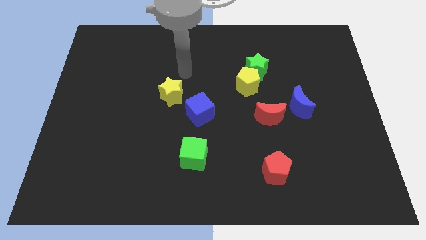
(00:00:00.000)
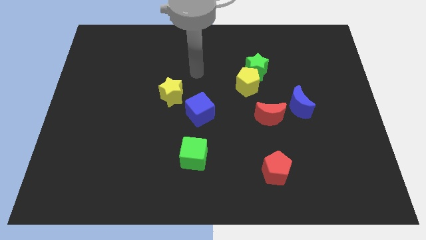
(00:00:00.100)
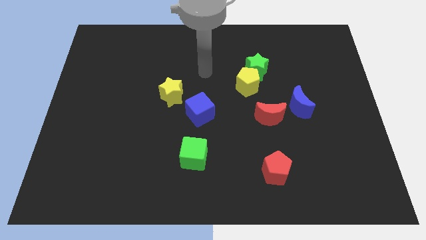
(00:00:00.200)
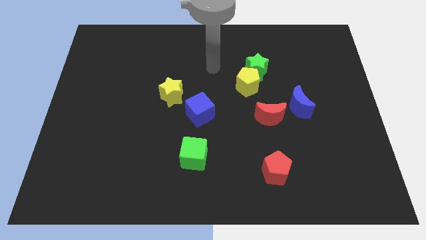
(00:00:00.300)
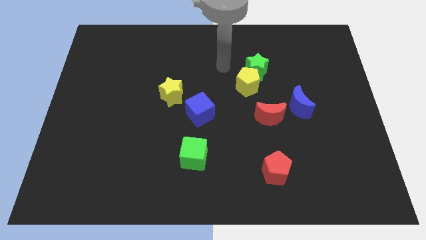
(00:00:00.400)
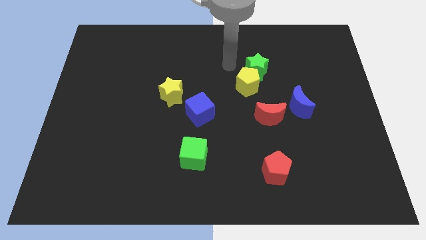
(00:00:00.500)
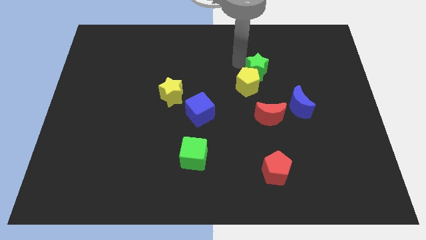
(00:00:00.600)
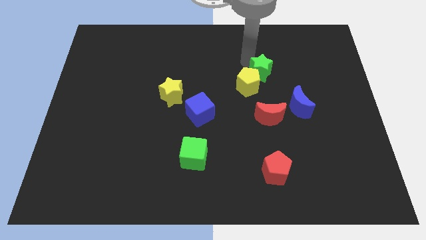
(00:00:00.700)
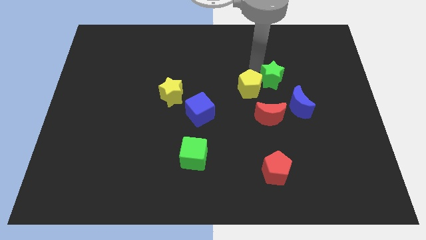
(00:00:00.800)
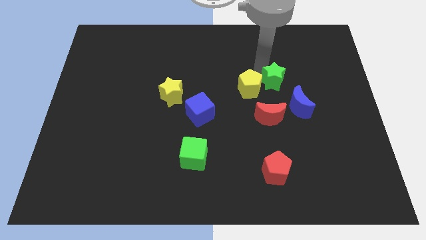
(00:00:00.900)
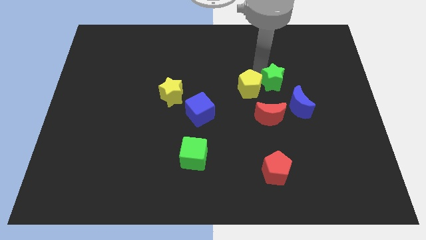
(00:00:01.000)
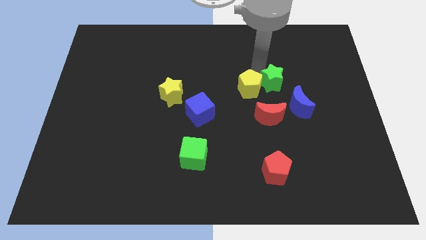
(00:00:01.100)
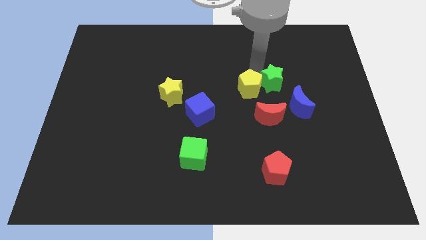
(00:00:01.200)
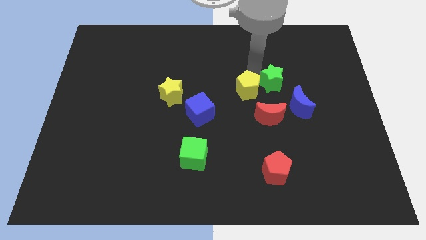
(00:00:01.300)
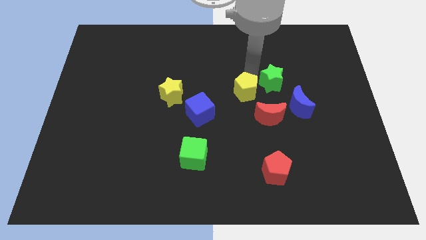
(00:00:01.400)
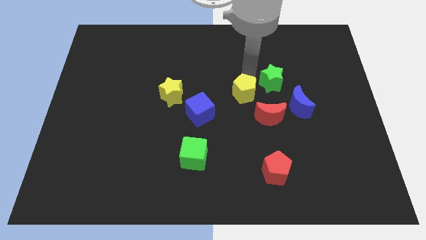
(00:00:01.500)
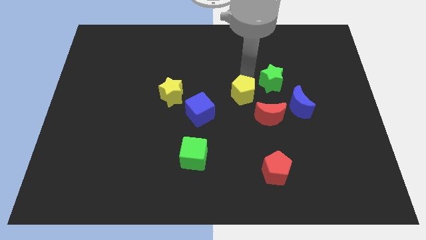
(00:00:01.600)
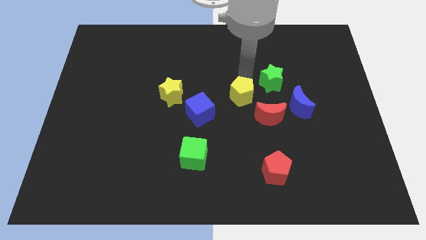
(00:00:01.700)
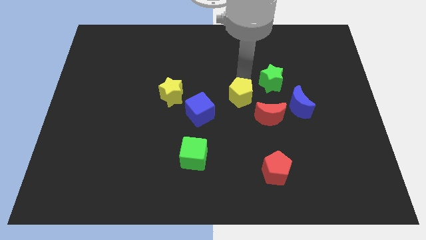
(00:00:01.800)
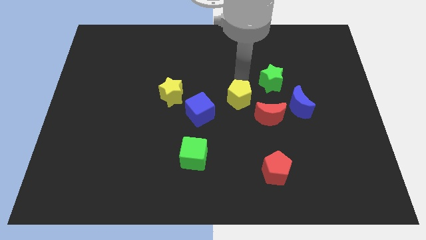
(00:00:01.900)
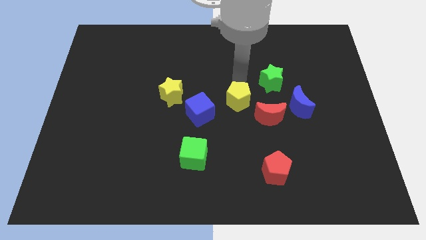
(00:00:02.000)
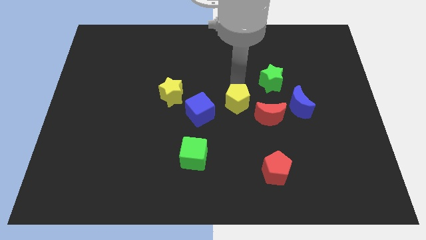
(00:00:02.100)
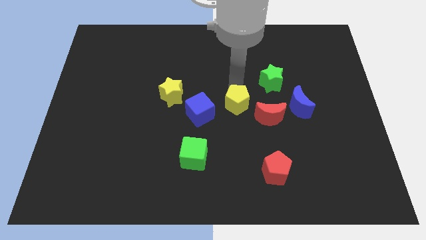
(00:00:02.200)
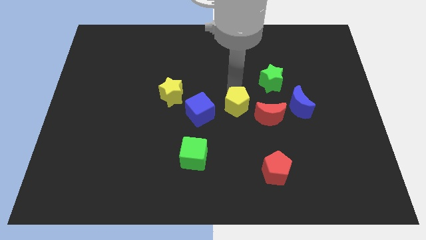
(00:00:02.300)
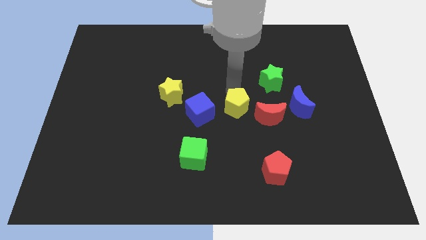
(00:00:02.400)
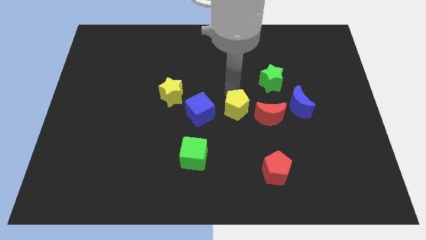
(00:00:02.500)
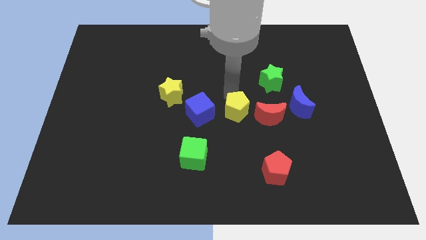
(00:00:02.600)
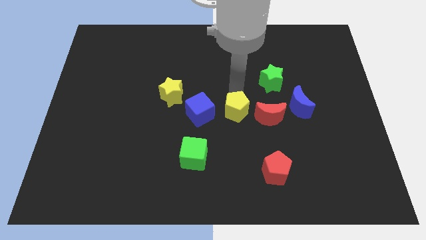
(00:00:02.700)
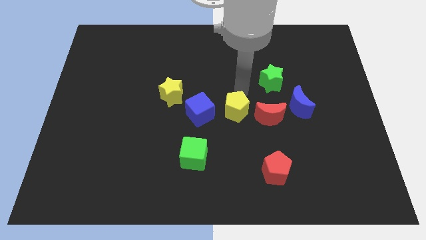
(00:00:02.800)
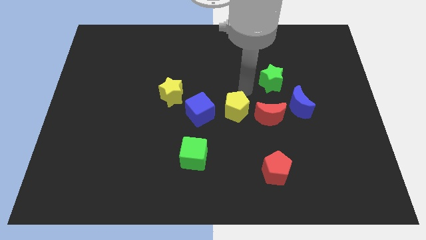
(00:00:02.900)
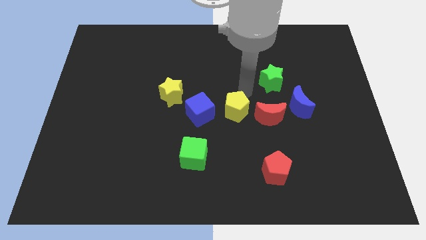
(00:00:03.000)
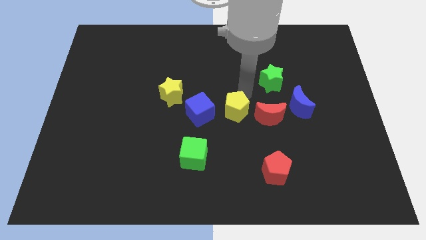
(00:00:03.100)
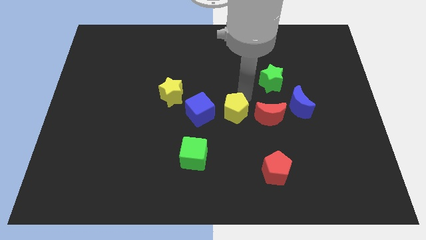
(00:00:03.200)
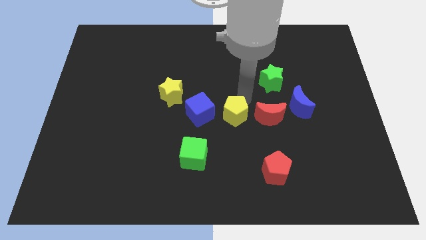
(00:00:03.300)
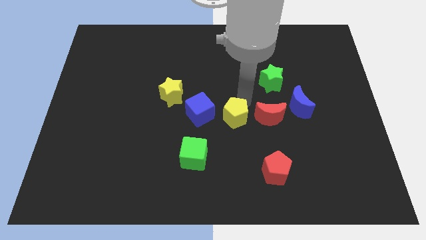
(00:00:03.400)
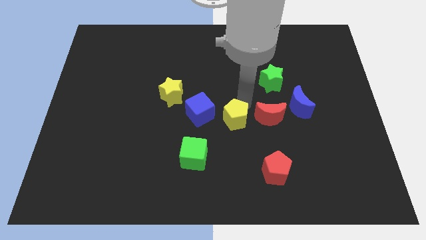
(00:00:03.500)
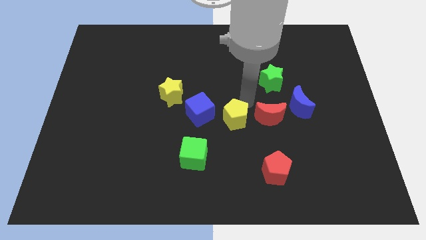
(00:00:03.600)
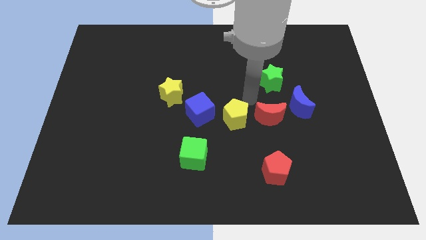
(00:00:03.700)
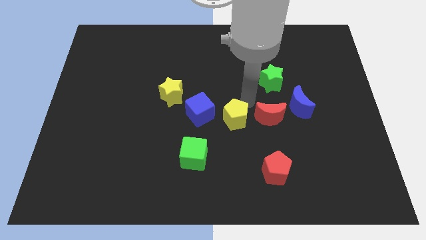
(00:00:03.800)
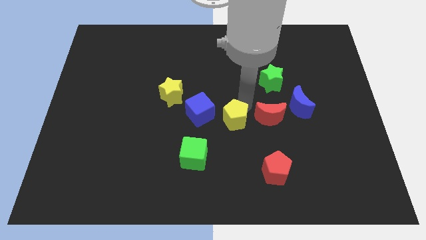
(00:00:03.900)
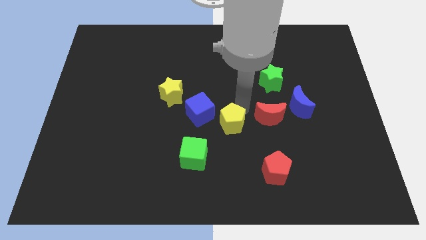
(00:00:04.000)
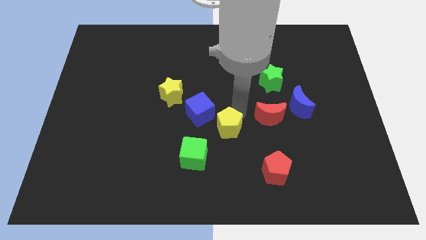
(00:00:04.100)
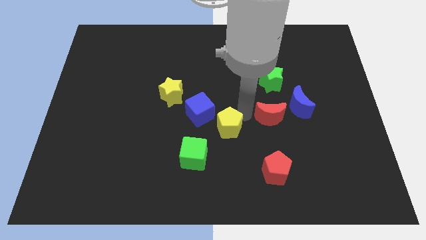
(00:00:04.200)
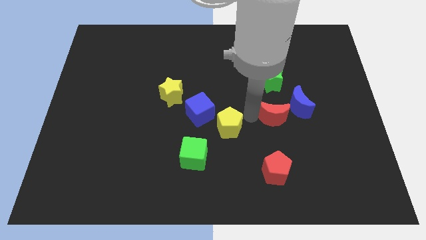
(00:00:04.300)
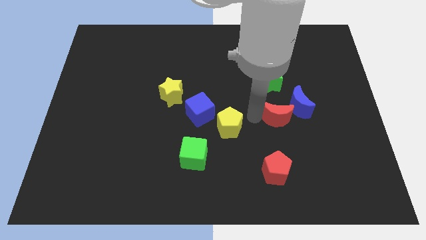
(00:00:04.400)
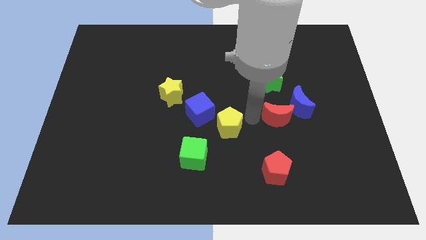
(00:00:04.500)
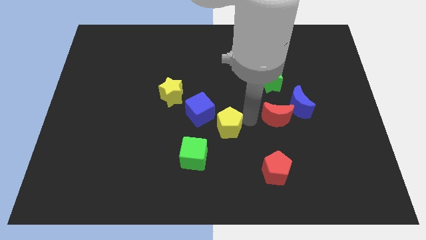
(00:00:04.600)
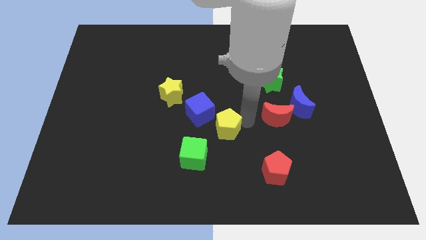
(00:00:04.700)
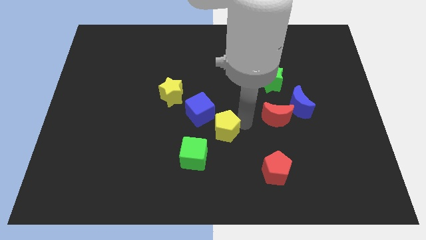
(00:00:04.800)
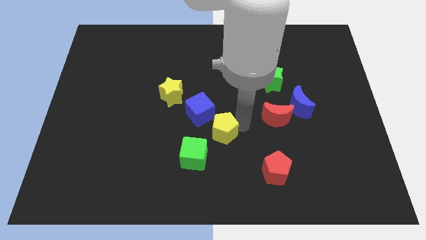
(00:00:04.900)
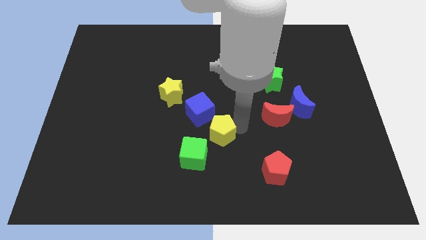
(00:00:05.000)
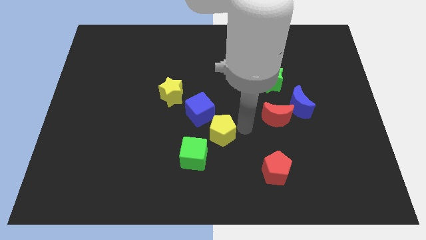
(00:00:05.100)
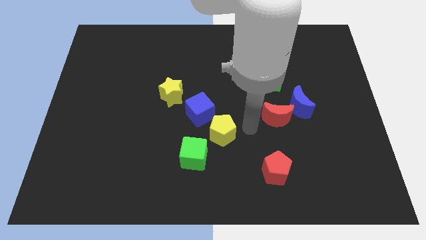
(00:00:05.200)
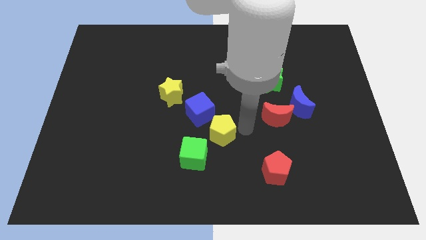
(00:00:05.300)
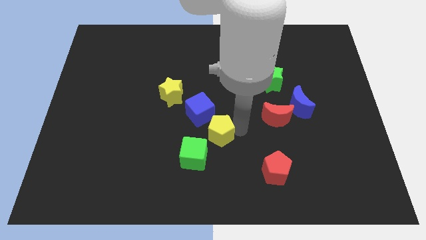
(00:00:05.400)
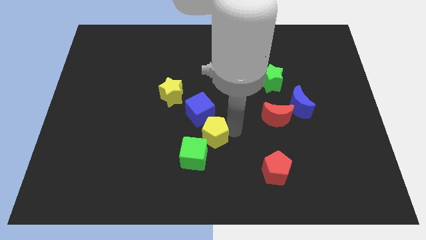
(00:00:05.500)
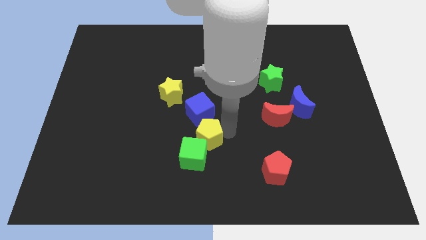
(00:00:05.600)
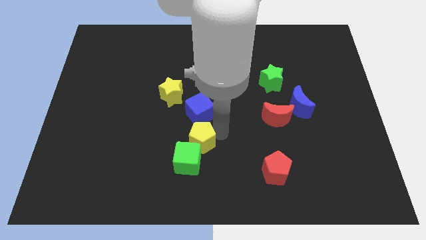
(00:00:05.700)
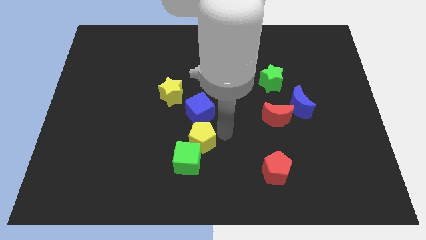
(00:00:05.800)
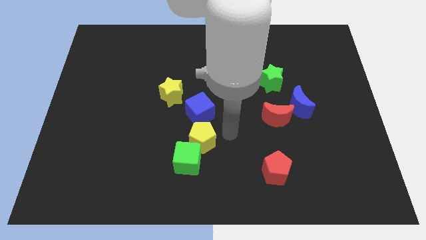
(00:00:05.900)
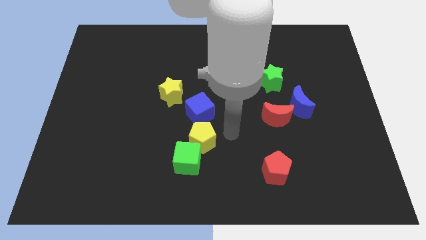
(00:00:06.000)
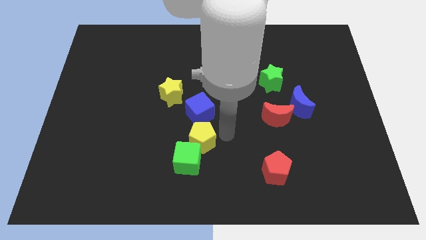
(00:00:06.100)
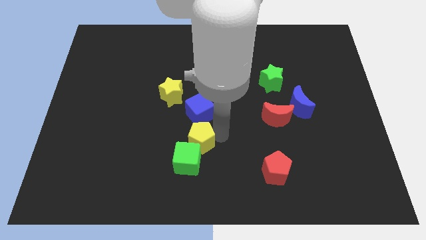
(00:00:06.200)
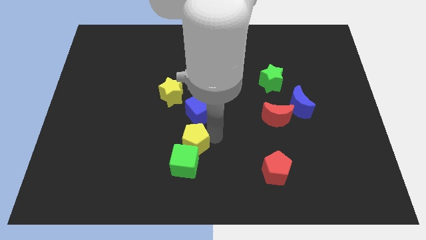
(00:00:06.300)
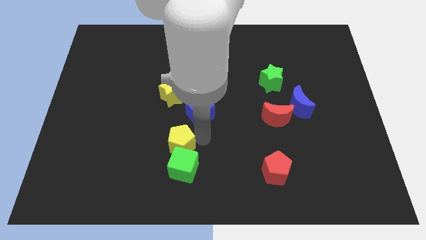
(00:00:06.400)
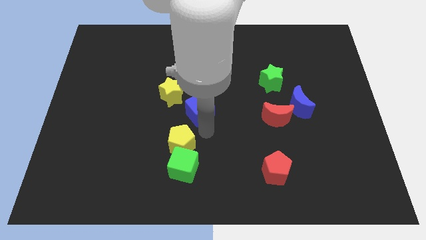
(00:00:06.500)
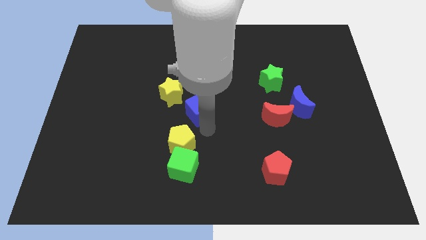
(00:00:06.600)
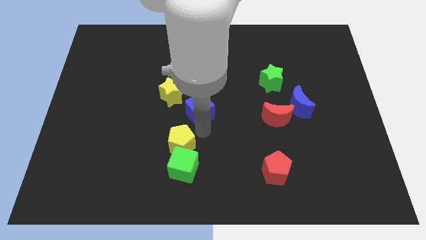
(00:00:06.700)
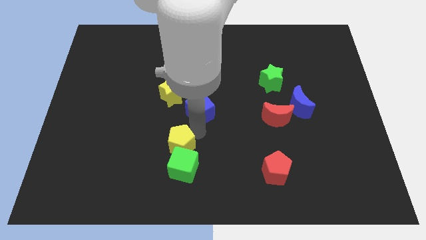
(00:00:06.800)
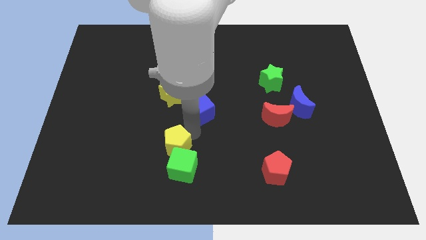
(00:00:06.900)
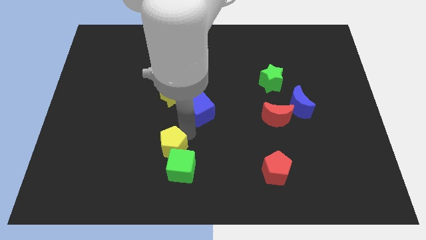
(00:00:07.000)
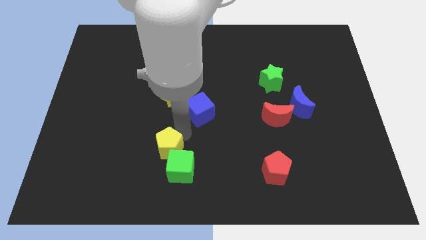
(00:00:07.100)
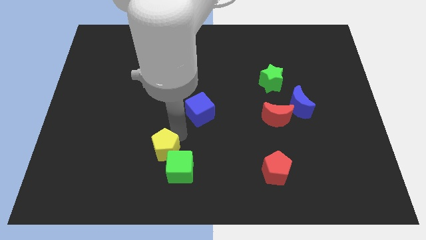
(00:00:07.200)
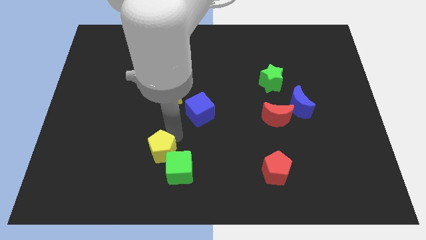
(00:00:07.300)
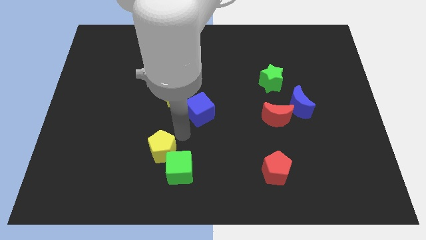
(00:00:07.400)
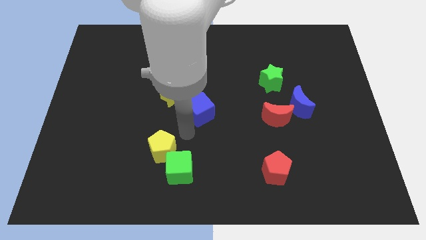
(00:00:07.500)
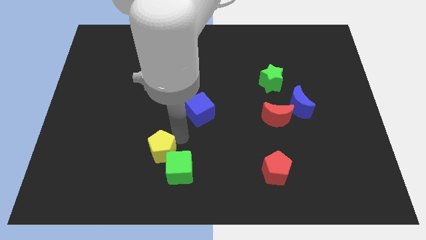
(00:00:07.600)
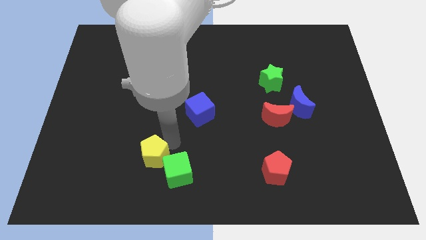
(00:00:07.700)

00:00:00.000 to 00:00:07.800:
move the yellow pentagon to the left side of the green cube
